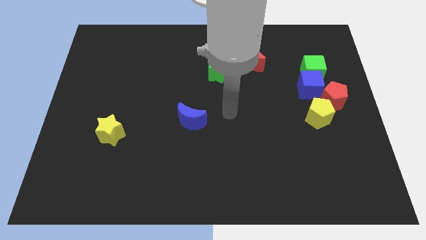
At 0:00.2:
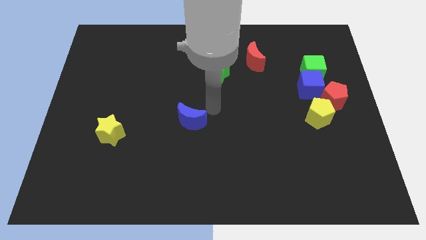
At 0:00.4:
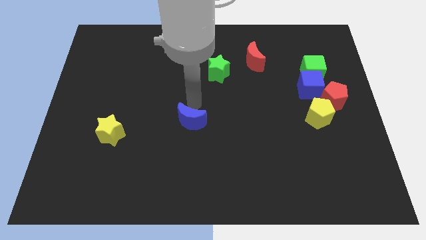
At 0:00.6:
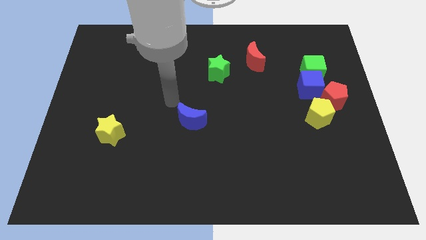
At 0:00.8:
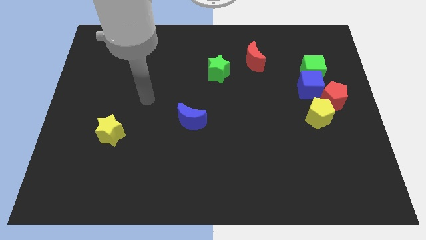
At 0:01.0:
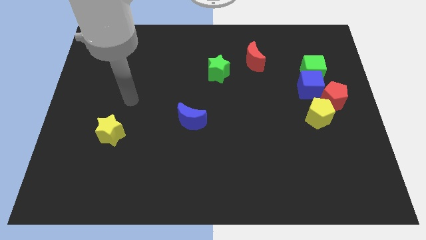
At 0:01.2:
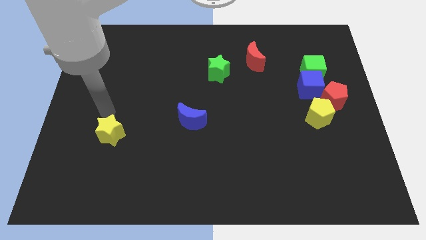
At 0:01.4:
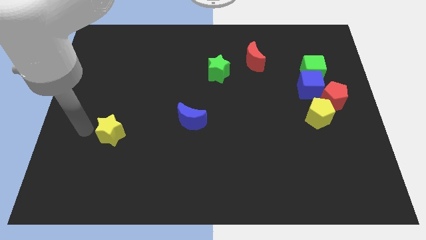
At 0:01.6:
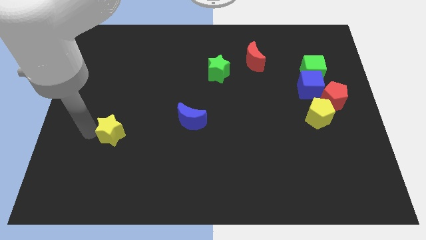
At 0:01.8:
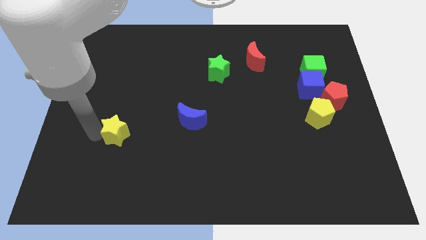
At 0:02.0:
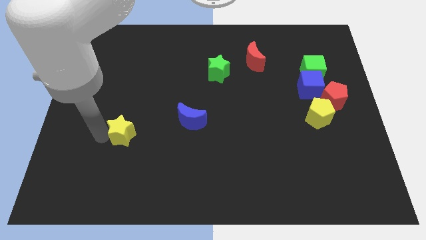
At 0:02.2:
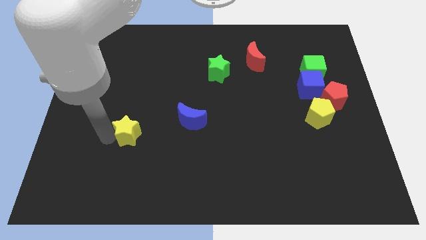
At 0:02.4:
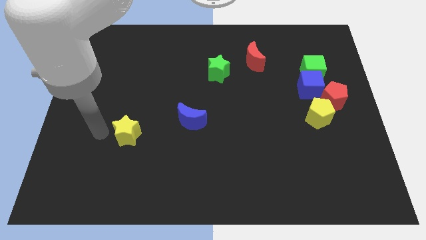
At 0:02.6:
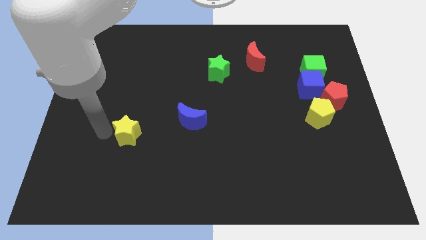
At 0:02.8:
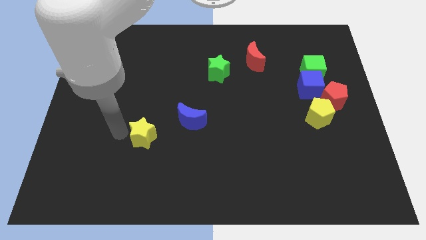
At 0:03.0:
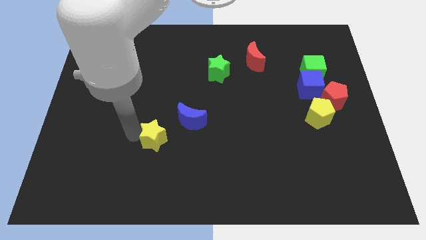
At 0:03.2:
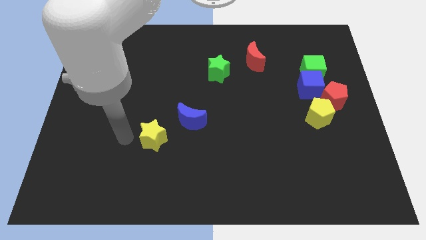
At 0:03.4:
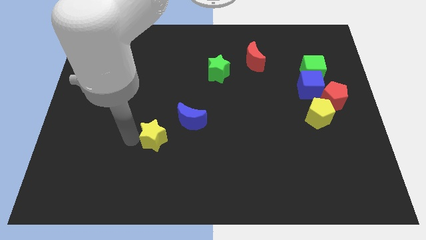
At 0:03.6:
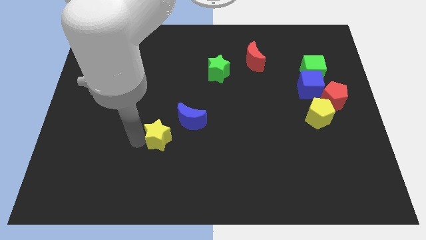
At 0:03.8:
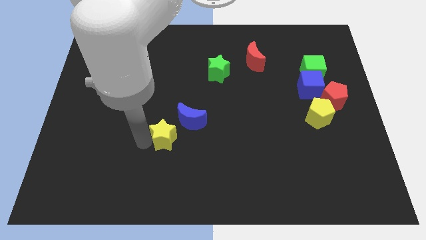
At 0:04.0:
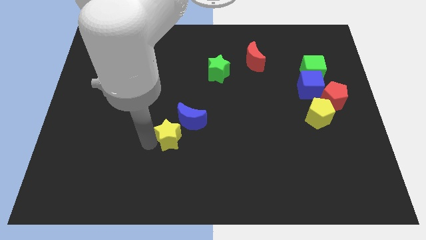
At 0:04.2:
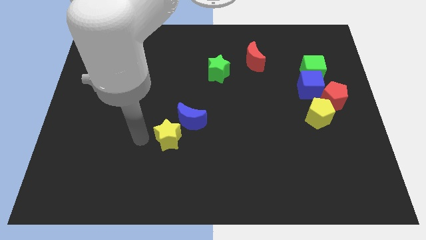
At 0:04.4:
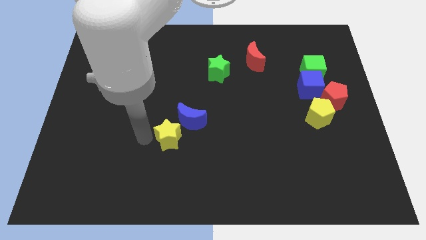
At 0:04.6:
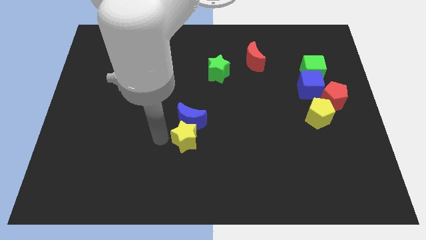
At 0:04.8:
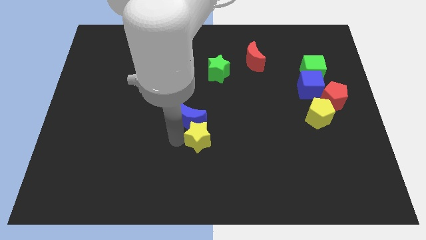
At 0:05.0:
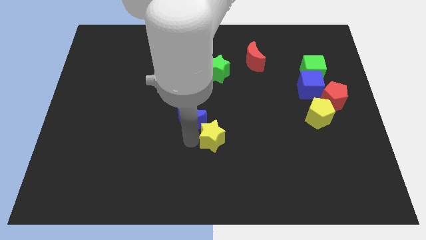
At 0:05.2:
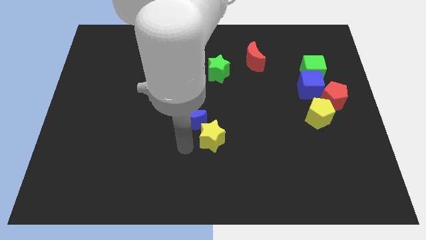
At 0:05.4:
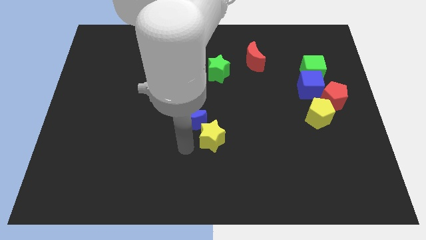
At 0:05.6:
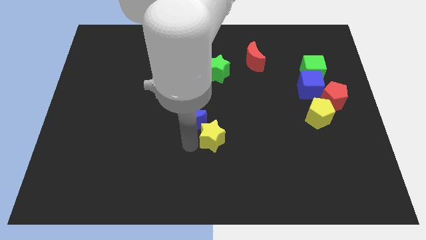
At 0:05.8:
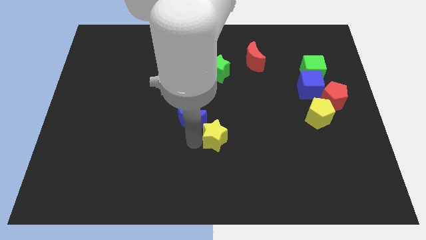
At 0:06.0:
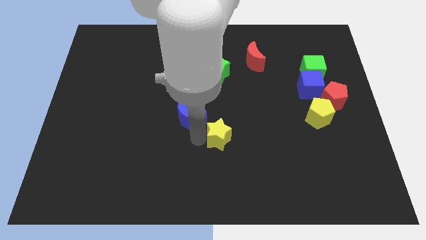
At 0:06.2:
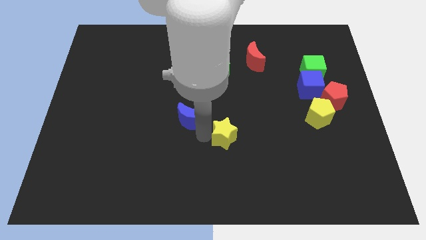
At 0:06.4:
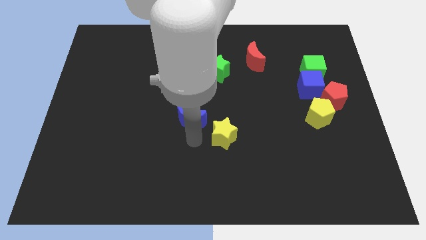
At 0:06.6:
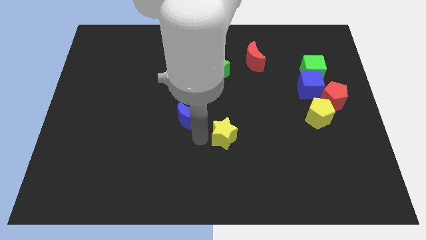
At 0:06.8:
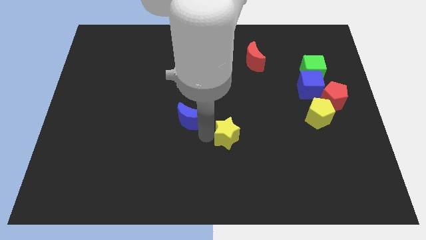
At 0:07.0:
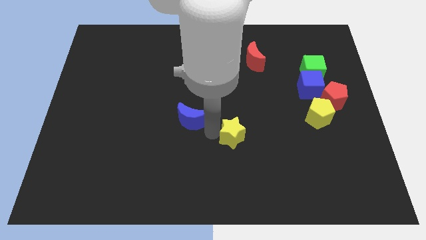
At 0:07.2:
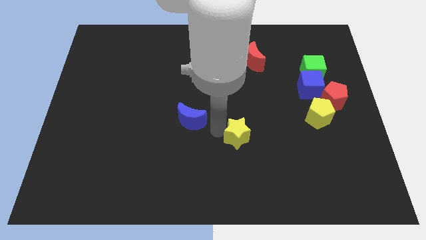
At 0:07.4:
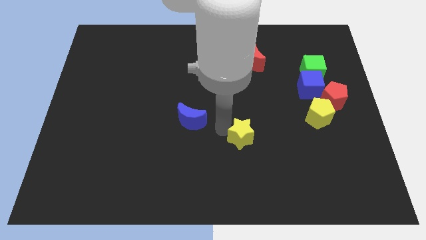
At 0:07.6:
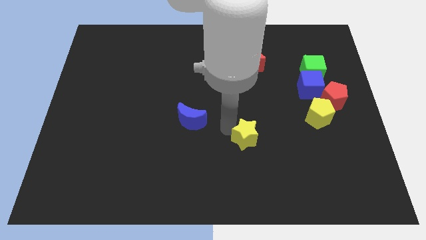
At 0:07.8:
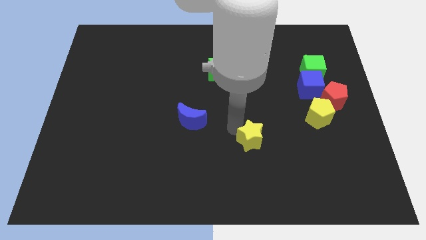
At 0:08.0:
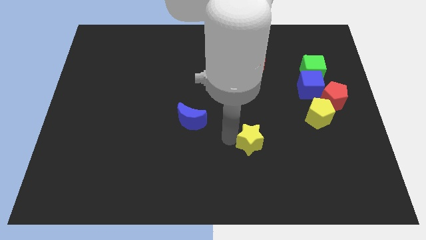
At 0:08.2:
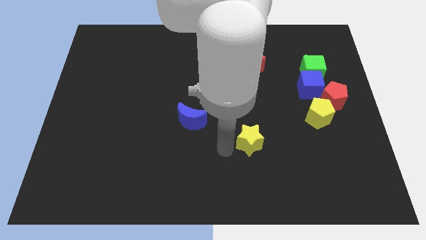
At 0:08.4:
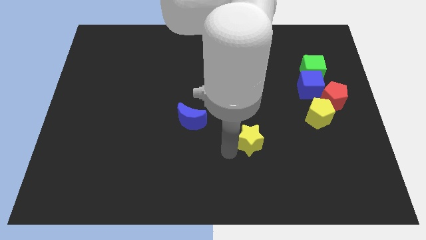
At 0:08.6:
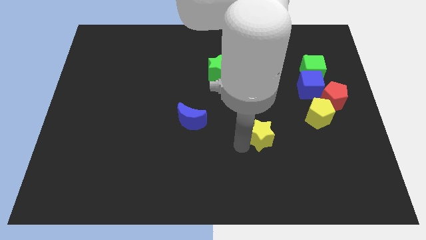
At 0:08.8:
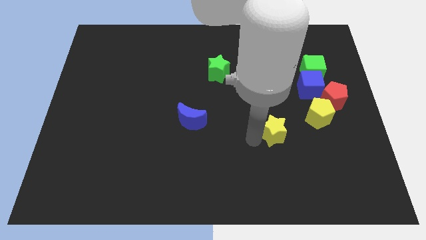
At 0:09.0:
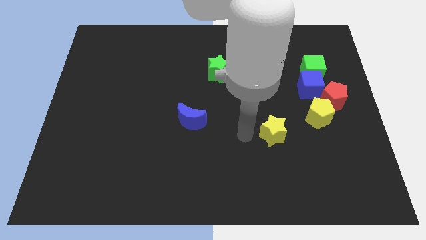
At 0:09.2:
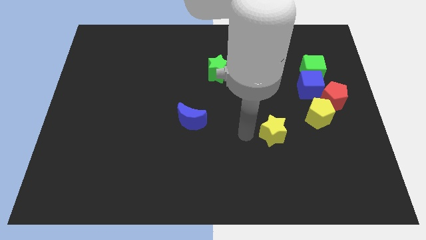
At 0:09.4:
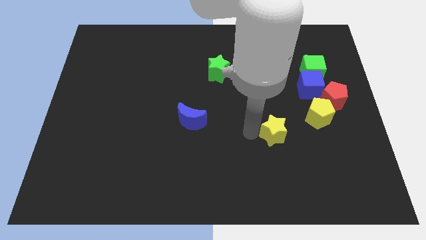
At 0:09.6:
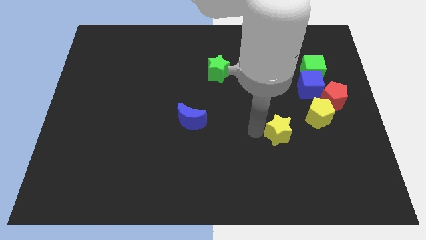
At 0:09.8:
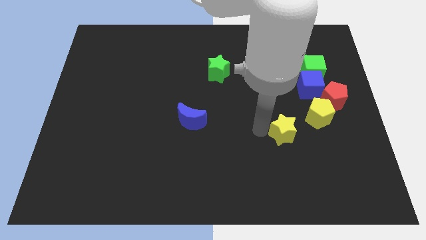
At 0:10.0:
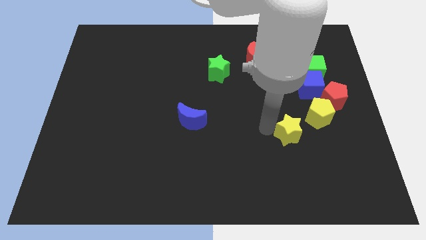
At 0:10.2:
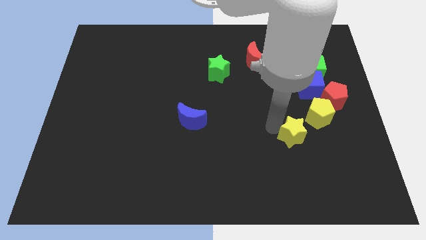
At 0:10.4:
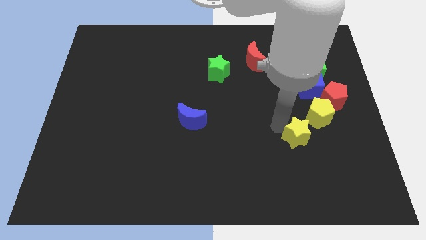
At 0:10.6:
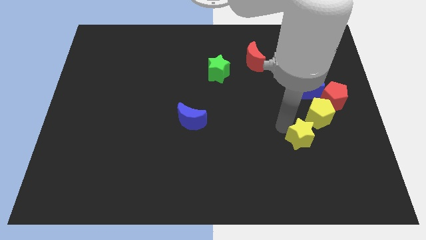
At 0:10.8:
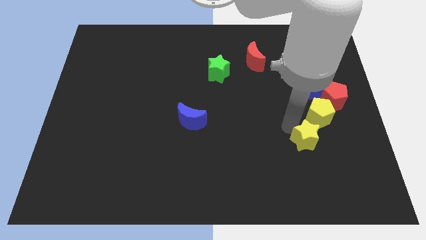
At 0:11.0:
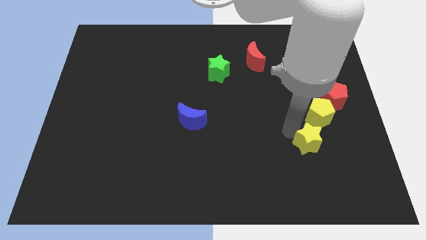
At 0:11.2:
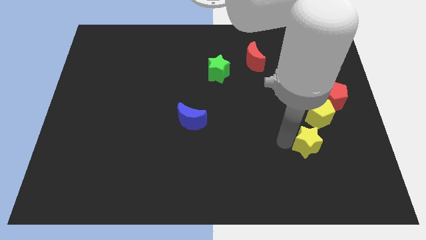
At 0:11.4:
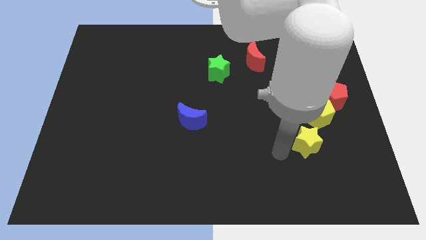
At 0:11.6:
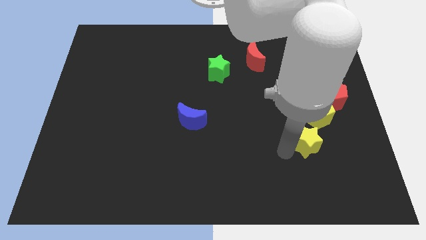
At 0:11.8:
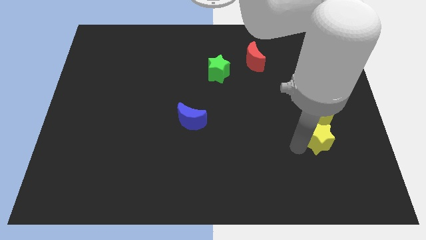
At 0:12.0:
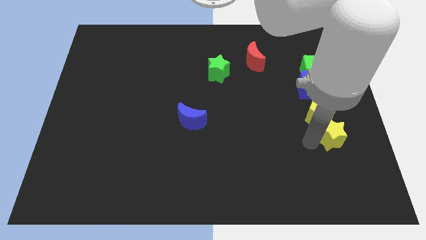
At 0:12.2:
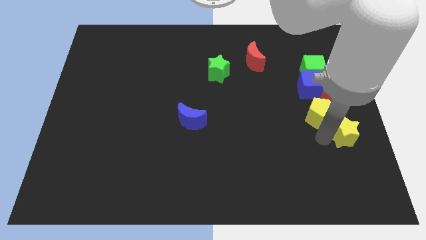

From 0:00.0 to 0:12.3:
push the yellow star to the right side of the board

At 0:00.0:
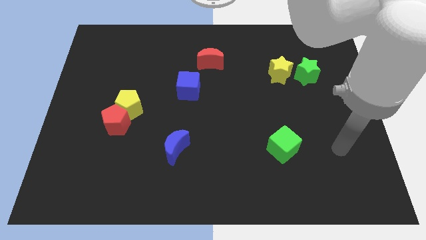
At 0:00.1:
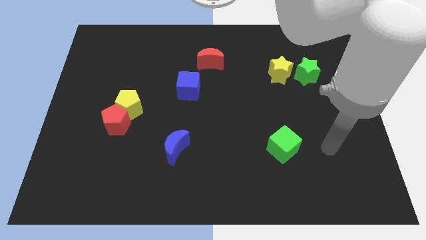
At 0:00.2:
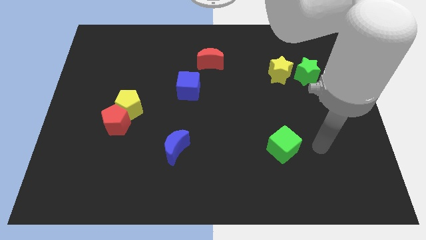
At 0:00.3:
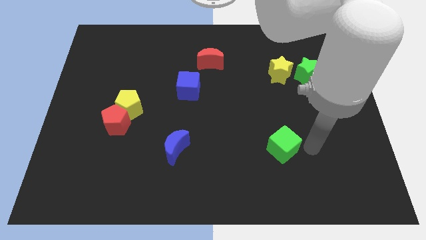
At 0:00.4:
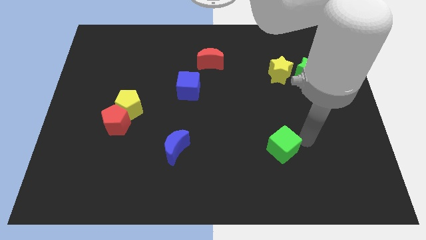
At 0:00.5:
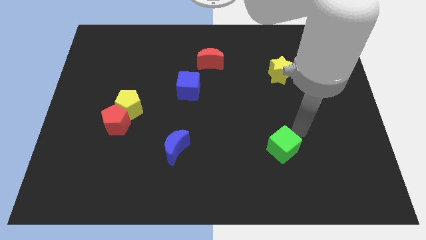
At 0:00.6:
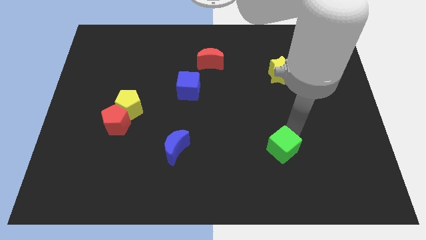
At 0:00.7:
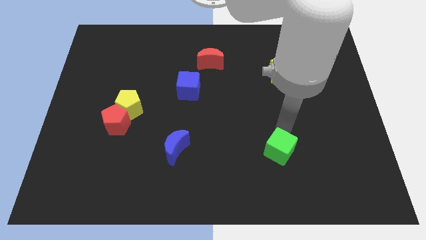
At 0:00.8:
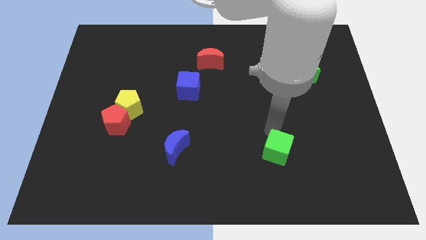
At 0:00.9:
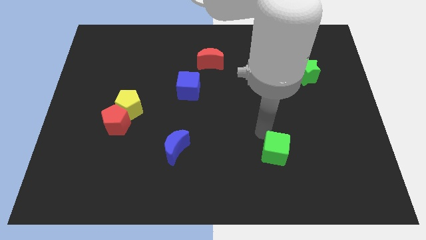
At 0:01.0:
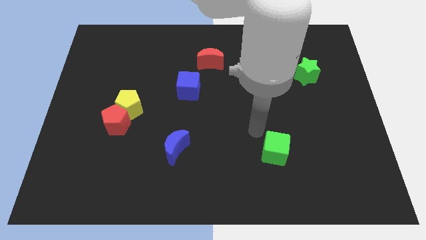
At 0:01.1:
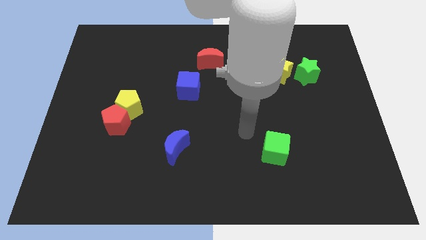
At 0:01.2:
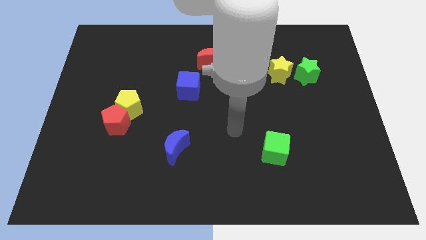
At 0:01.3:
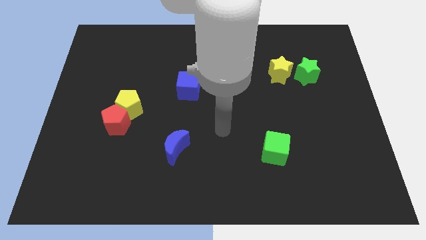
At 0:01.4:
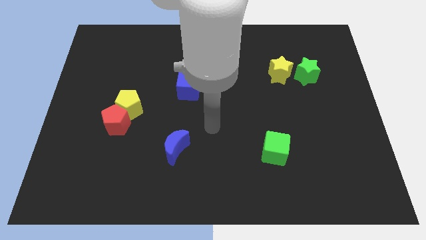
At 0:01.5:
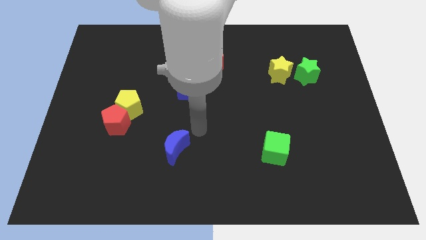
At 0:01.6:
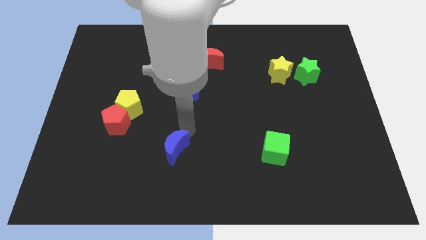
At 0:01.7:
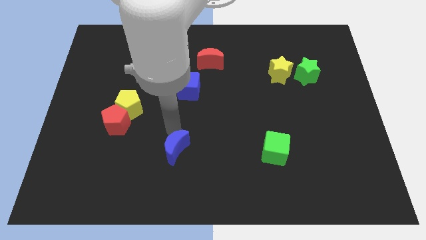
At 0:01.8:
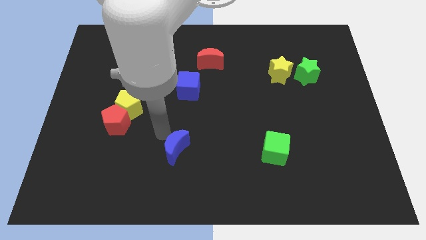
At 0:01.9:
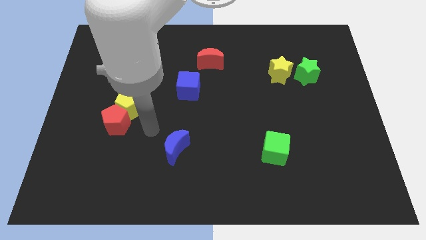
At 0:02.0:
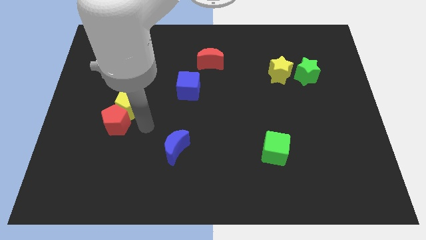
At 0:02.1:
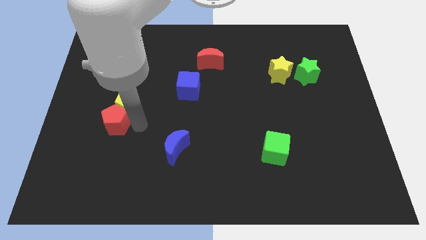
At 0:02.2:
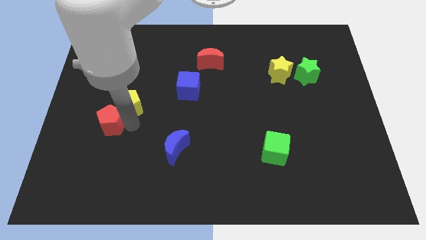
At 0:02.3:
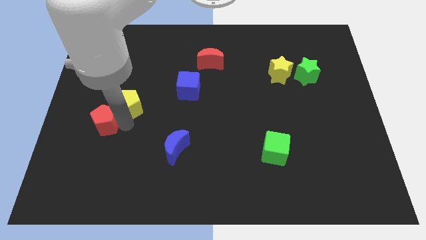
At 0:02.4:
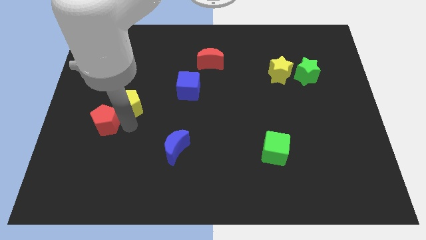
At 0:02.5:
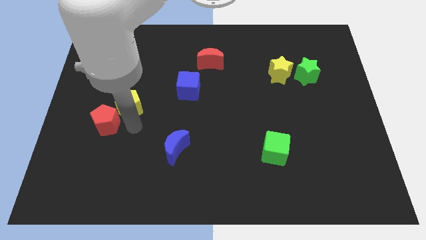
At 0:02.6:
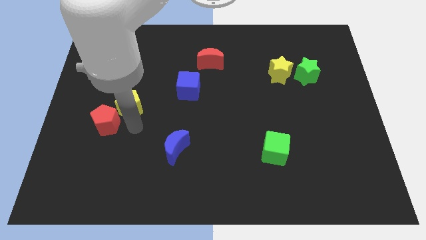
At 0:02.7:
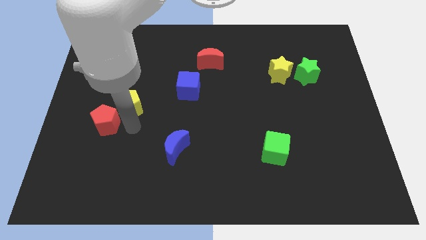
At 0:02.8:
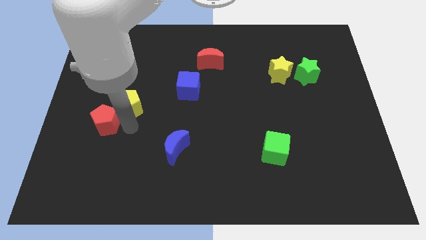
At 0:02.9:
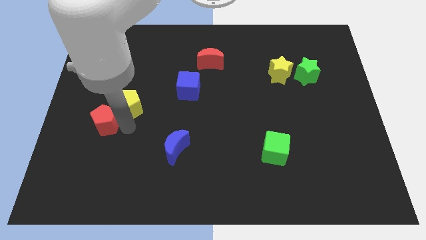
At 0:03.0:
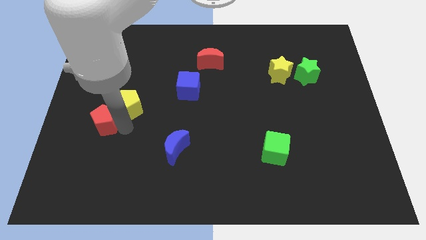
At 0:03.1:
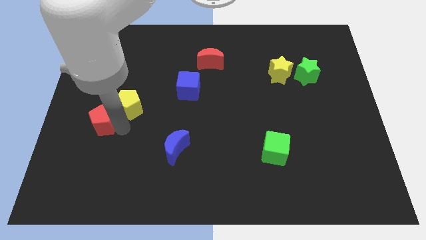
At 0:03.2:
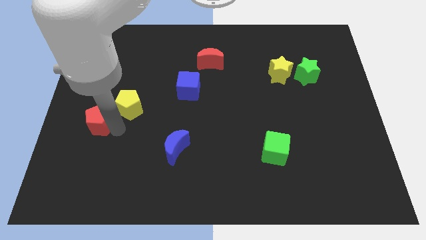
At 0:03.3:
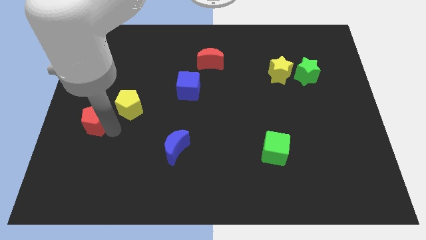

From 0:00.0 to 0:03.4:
slide the red pentagon to the center left
